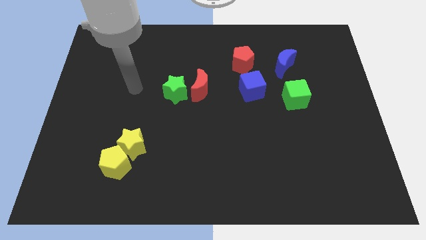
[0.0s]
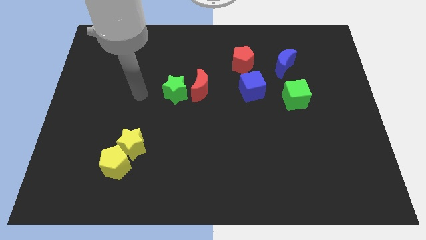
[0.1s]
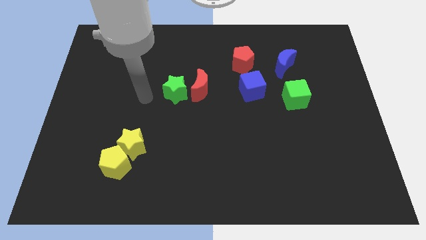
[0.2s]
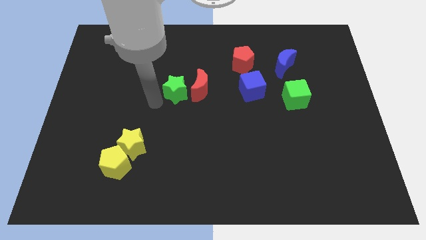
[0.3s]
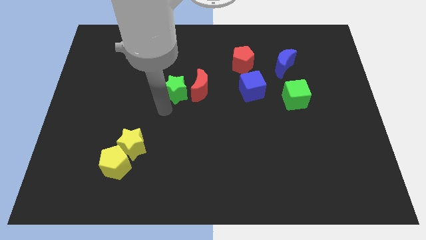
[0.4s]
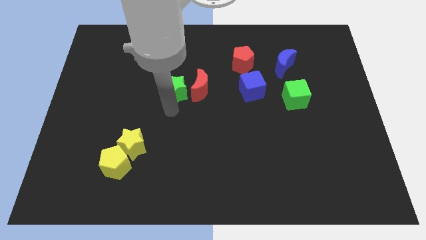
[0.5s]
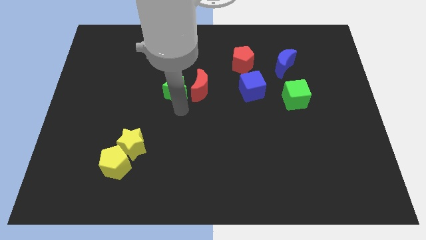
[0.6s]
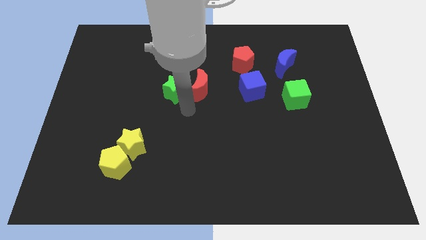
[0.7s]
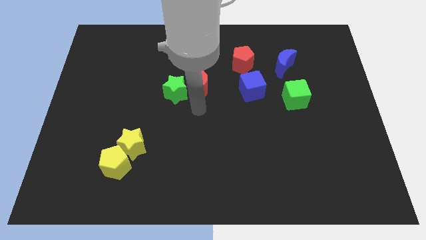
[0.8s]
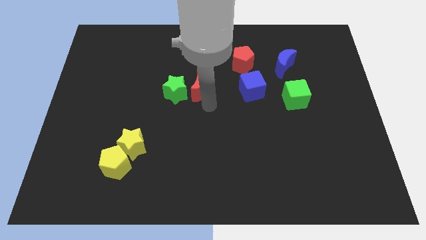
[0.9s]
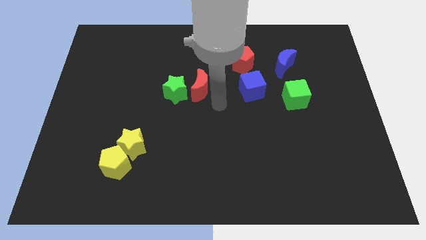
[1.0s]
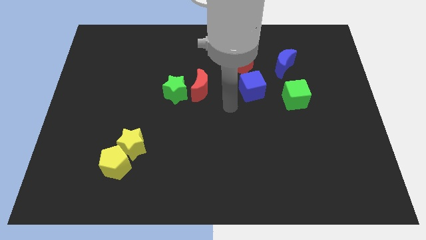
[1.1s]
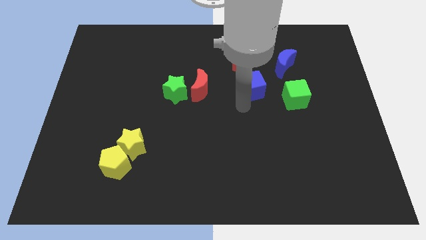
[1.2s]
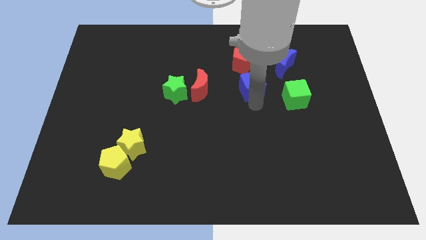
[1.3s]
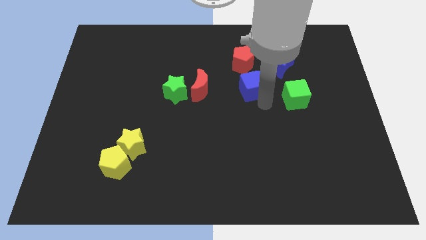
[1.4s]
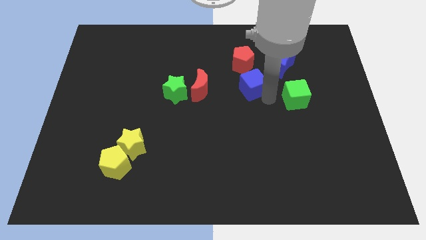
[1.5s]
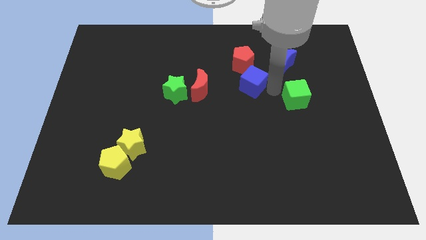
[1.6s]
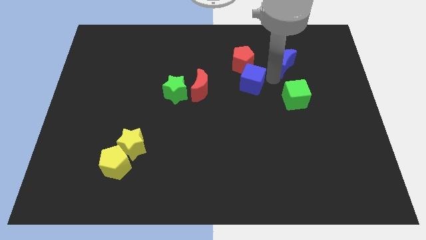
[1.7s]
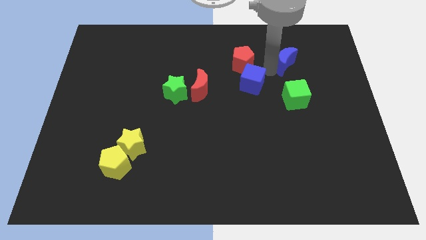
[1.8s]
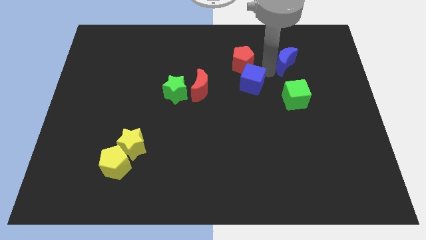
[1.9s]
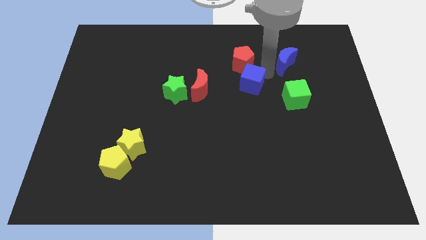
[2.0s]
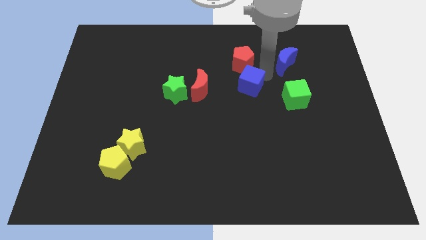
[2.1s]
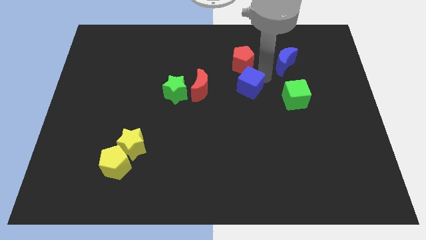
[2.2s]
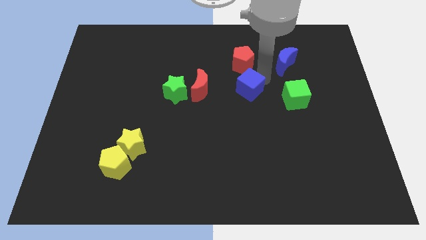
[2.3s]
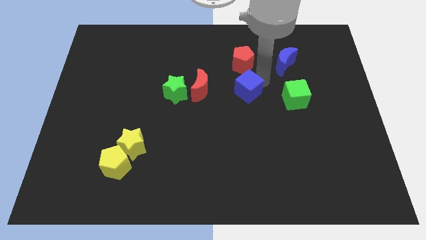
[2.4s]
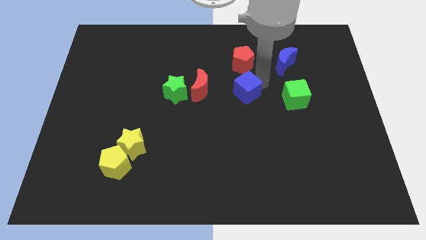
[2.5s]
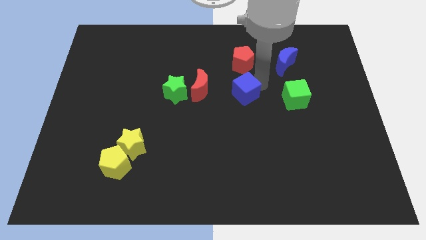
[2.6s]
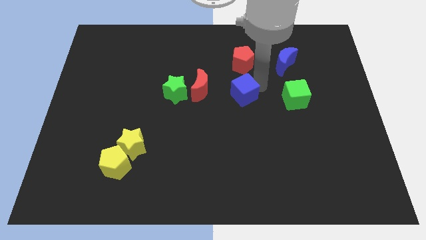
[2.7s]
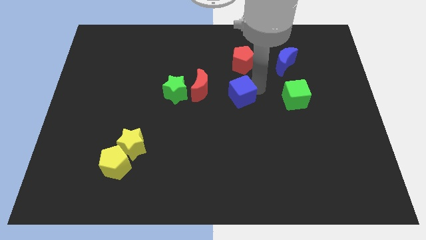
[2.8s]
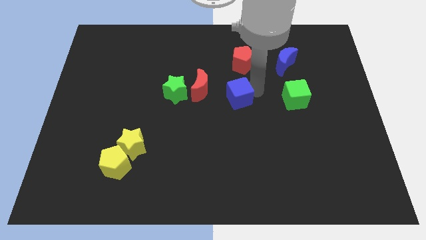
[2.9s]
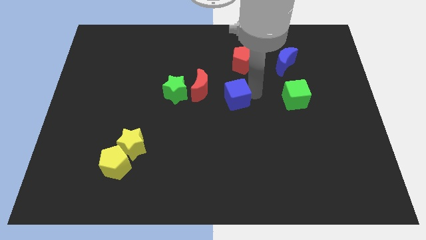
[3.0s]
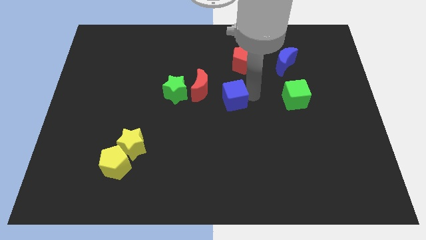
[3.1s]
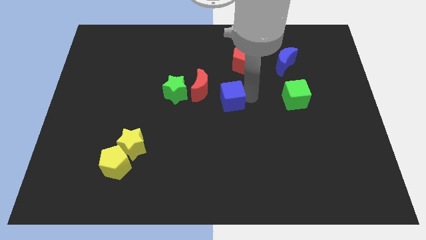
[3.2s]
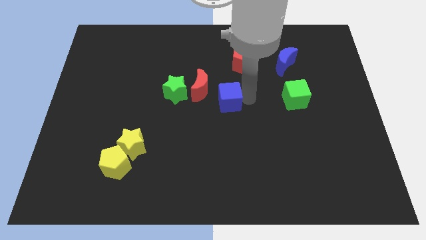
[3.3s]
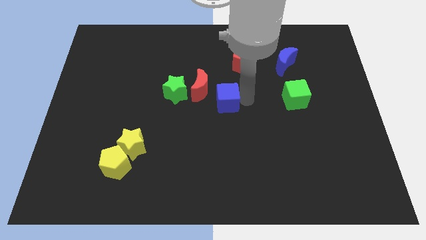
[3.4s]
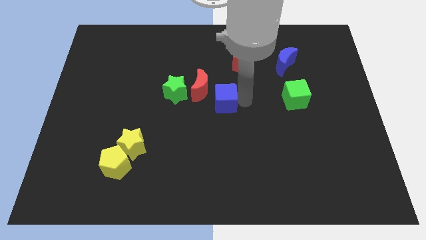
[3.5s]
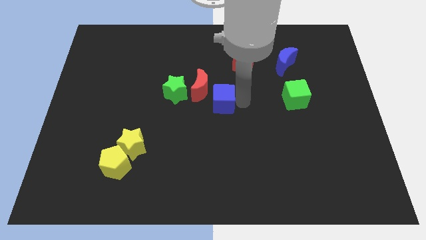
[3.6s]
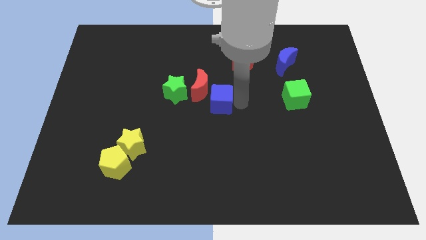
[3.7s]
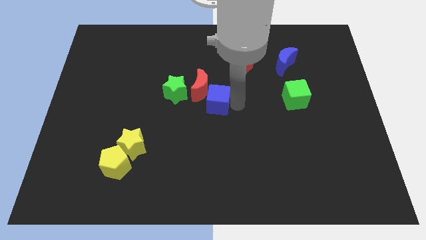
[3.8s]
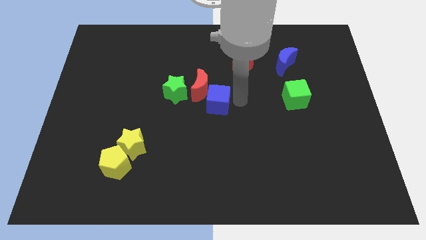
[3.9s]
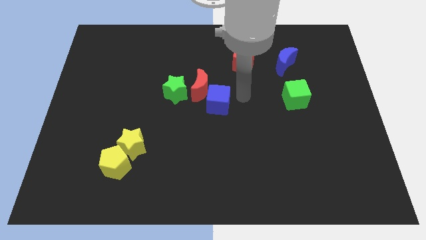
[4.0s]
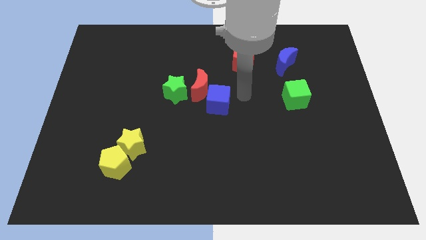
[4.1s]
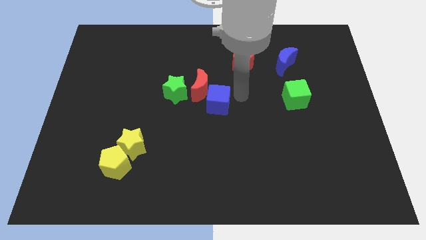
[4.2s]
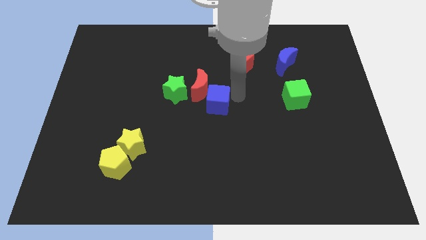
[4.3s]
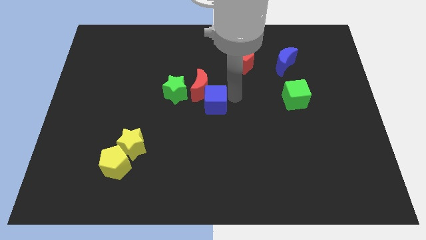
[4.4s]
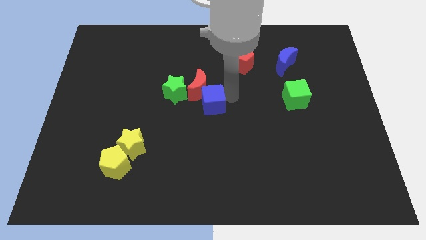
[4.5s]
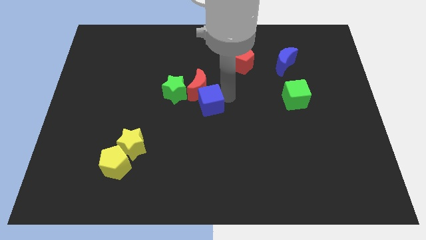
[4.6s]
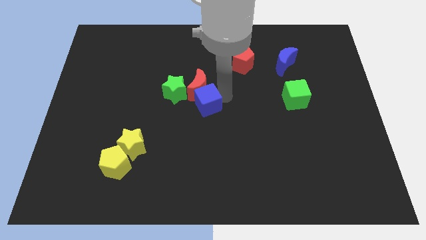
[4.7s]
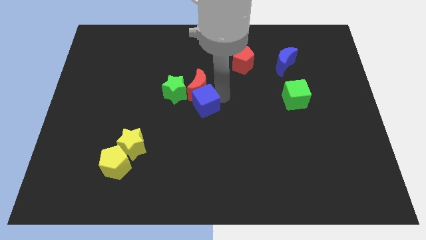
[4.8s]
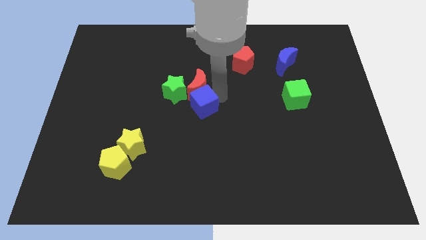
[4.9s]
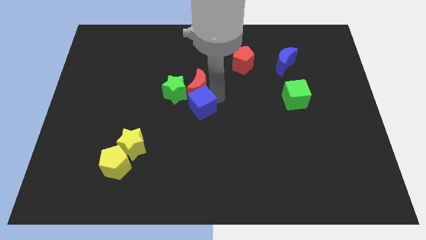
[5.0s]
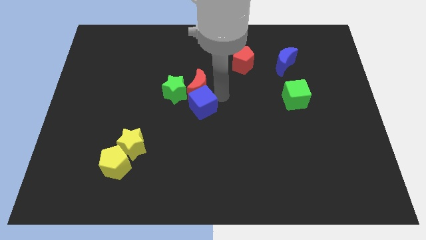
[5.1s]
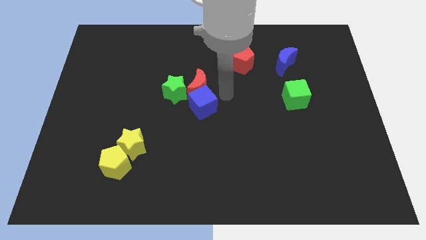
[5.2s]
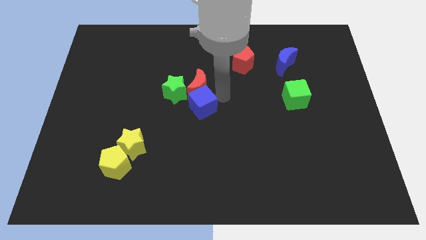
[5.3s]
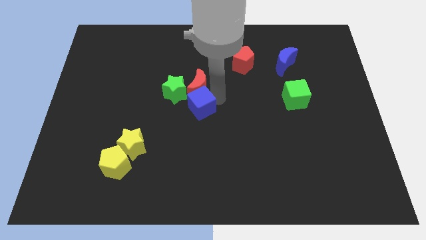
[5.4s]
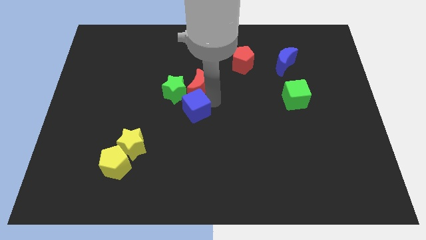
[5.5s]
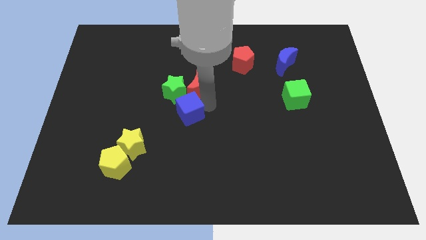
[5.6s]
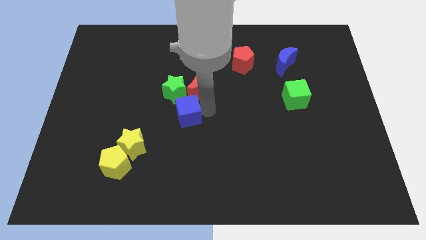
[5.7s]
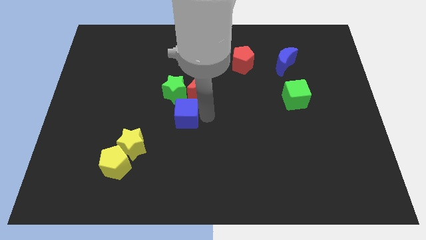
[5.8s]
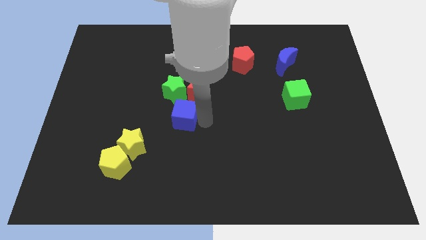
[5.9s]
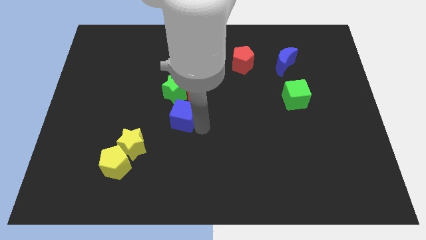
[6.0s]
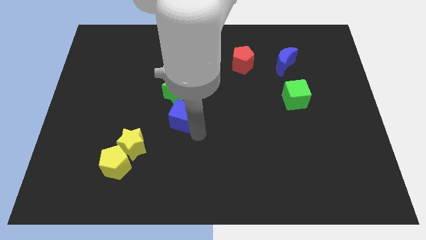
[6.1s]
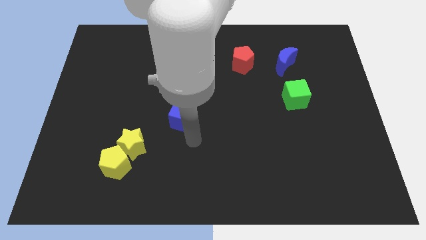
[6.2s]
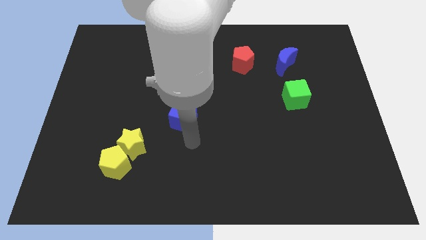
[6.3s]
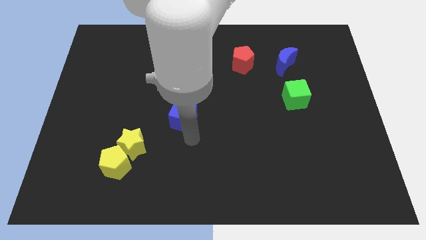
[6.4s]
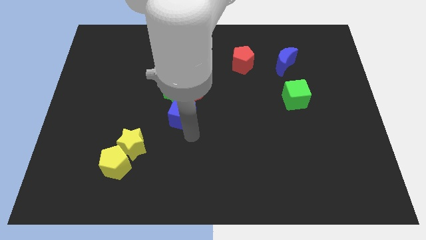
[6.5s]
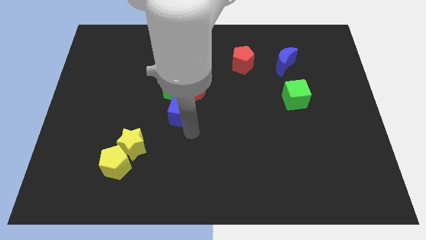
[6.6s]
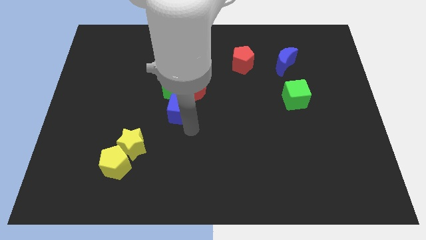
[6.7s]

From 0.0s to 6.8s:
put the blue cube towards the green star

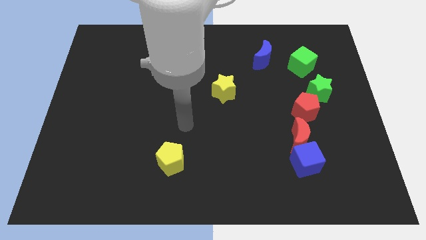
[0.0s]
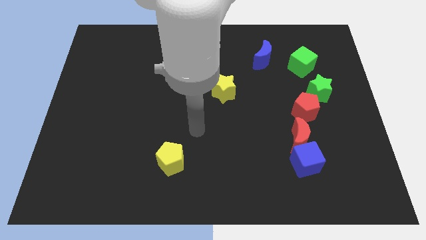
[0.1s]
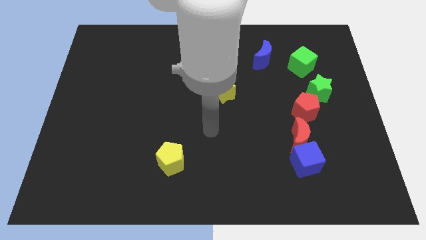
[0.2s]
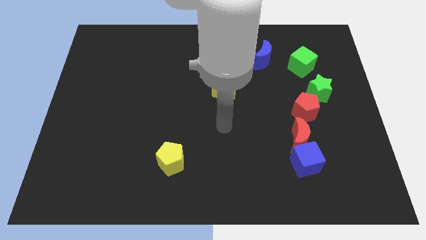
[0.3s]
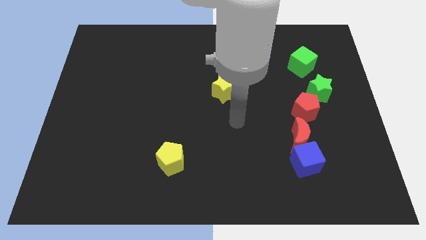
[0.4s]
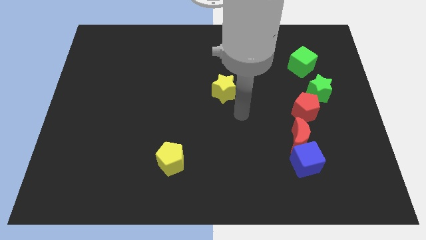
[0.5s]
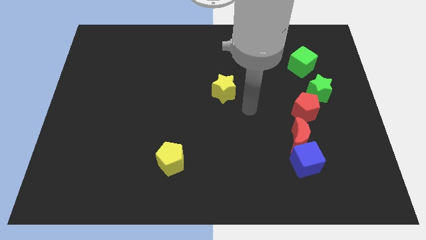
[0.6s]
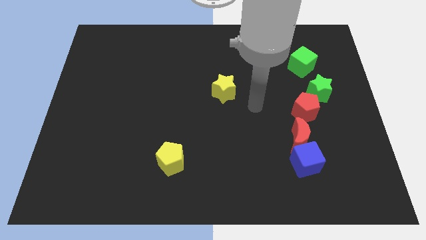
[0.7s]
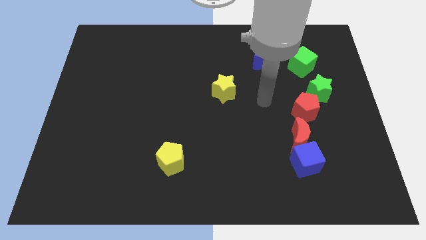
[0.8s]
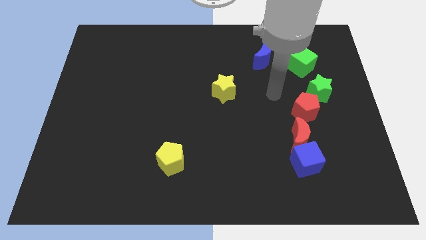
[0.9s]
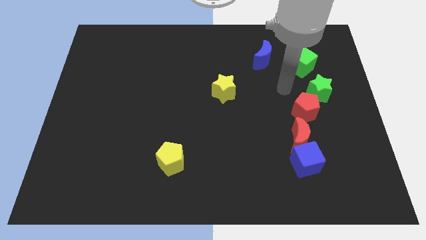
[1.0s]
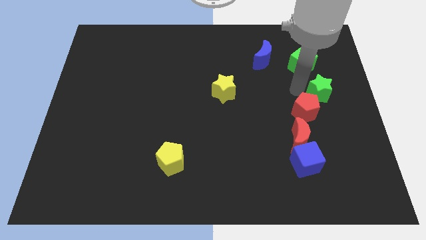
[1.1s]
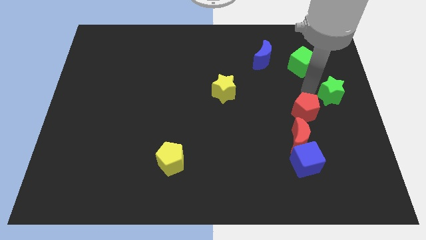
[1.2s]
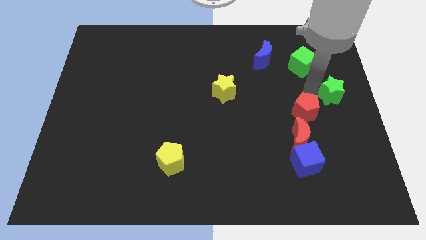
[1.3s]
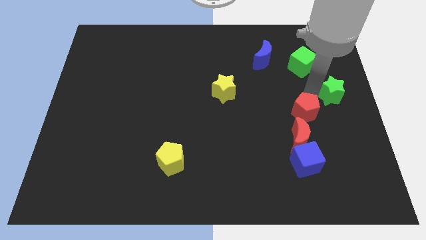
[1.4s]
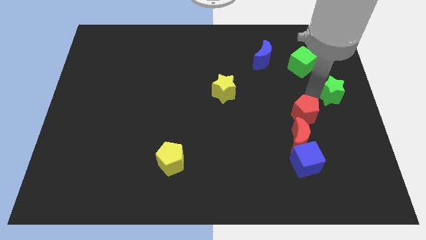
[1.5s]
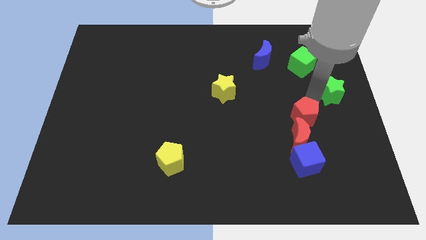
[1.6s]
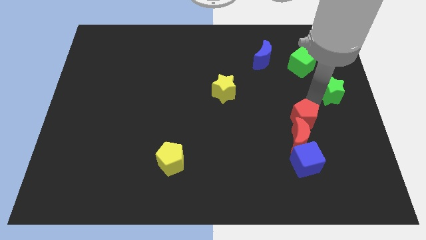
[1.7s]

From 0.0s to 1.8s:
push the red pentagon towards the red moon
